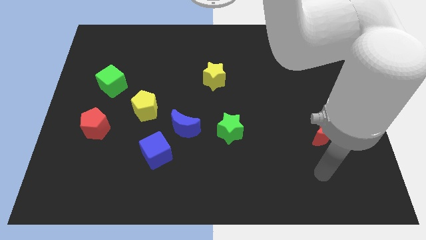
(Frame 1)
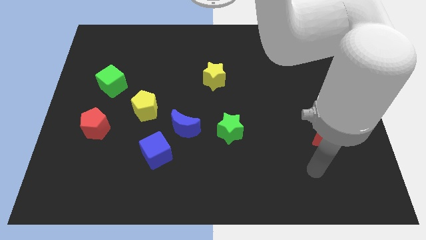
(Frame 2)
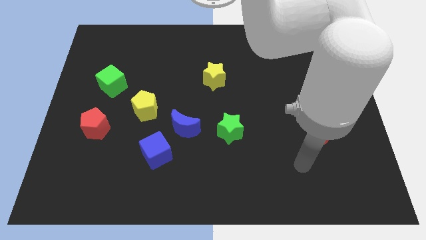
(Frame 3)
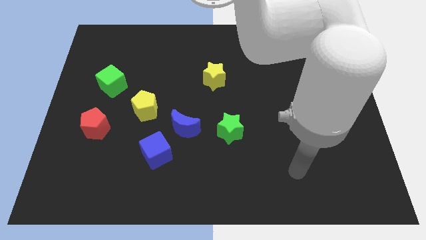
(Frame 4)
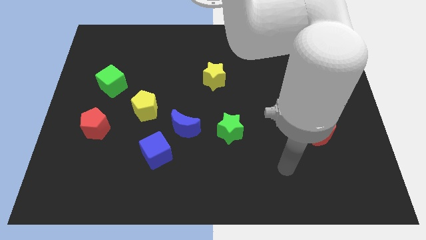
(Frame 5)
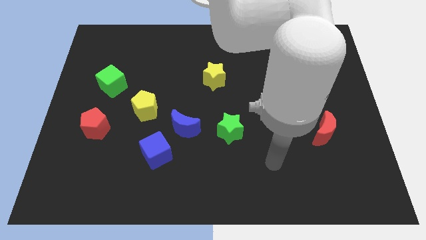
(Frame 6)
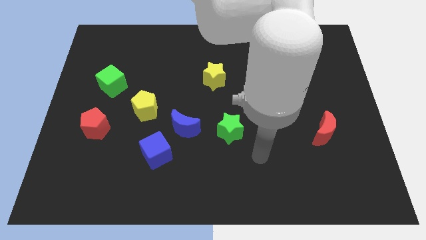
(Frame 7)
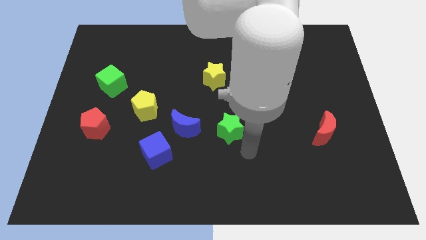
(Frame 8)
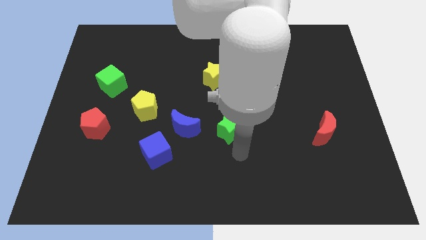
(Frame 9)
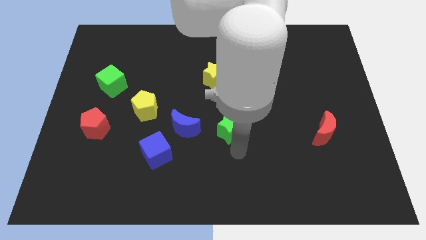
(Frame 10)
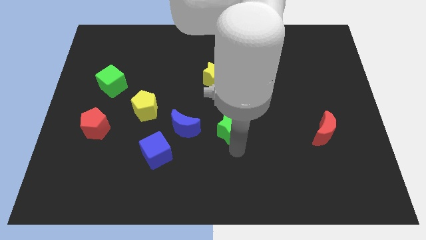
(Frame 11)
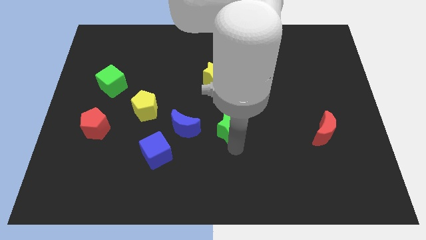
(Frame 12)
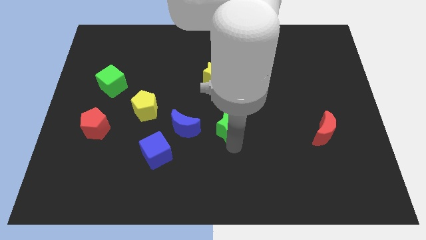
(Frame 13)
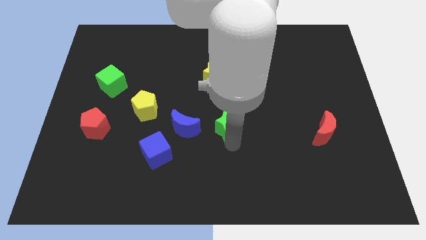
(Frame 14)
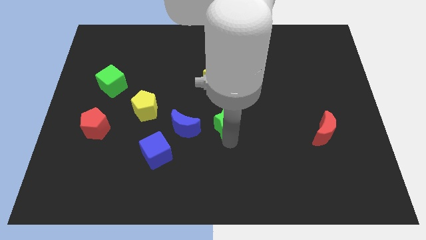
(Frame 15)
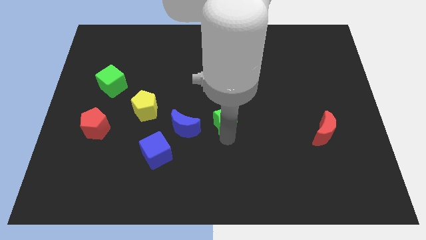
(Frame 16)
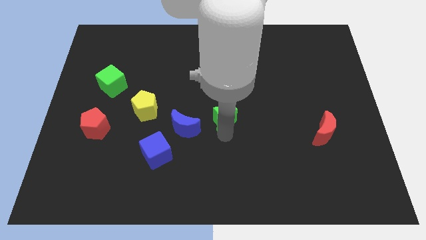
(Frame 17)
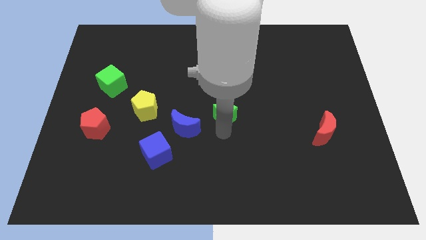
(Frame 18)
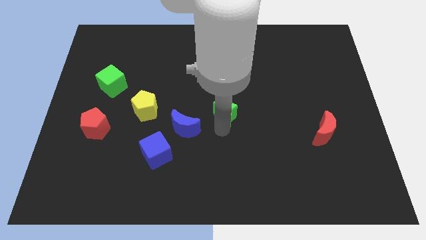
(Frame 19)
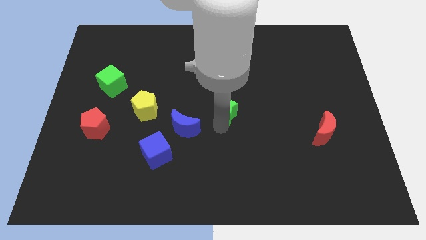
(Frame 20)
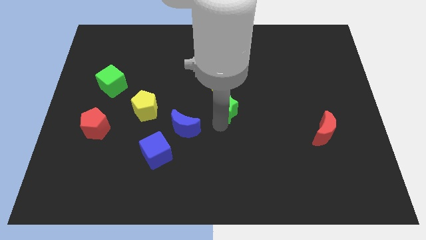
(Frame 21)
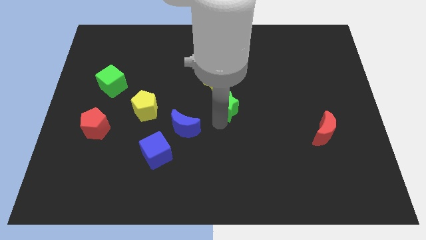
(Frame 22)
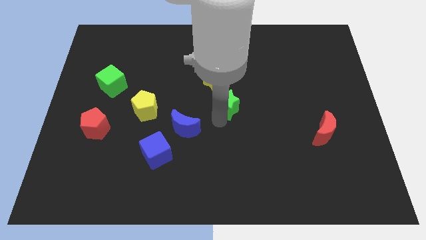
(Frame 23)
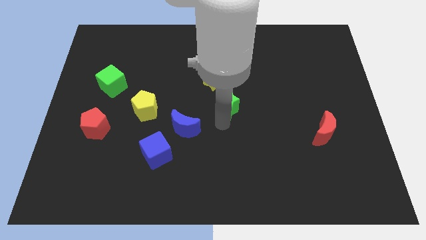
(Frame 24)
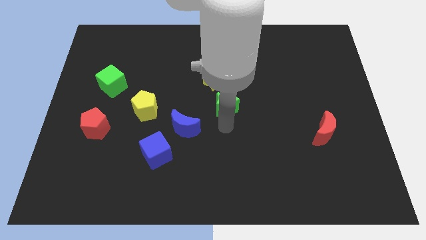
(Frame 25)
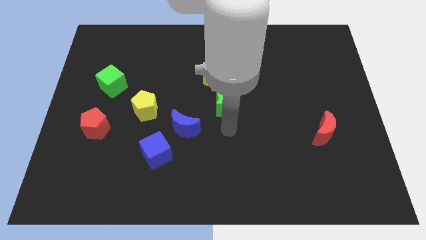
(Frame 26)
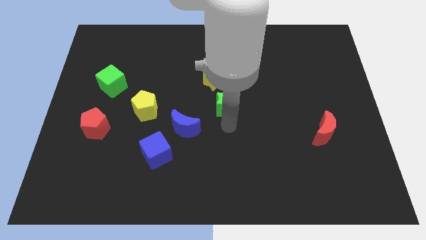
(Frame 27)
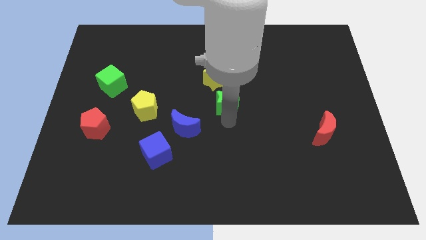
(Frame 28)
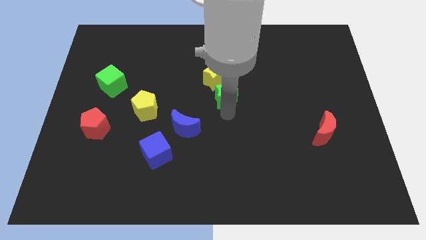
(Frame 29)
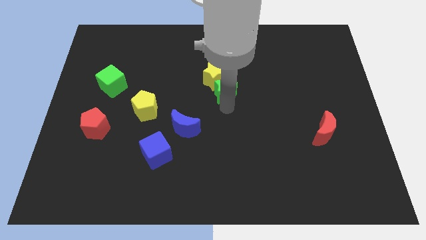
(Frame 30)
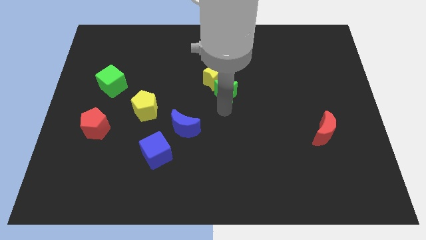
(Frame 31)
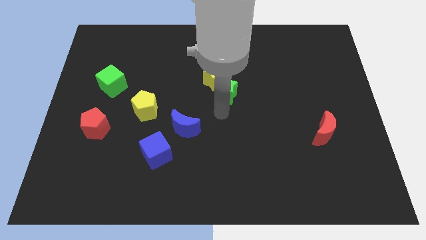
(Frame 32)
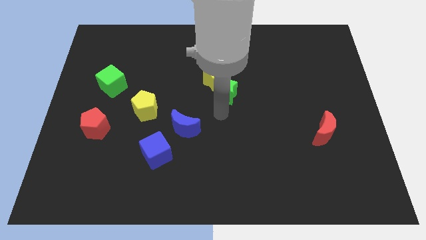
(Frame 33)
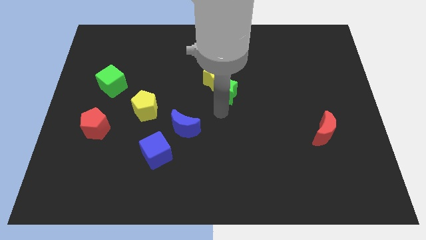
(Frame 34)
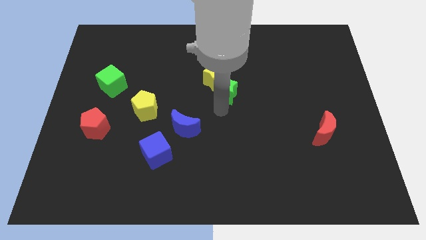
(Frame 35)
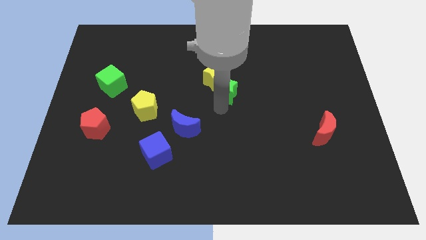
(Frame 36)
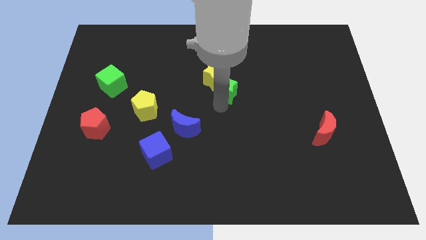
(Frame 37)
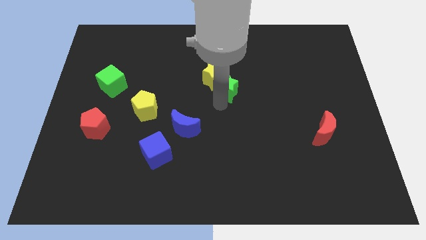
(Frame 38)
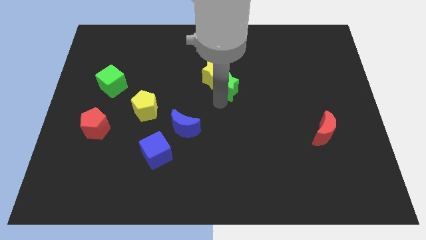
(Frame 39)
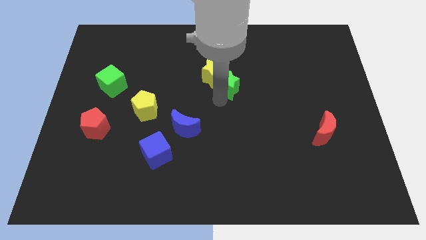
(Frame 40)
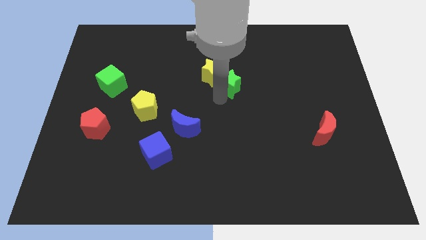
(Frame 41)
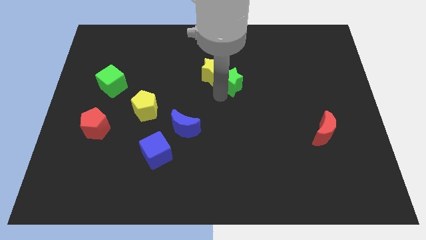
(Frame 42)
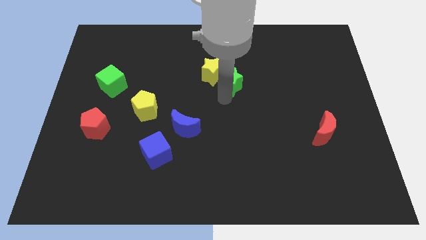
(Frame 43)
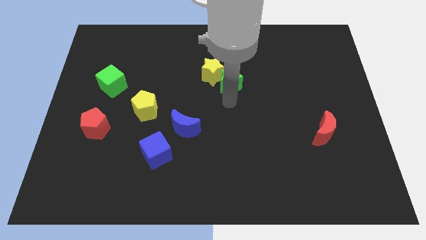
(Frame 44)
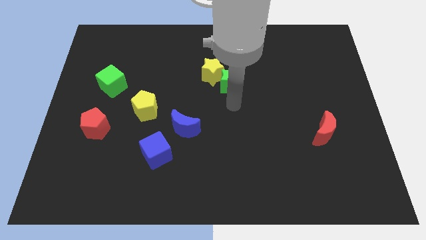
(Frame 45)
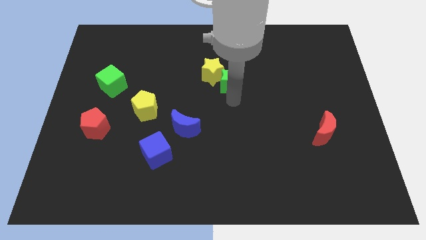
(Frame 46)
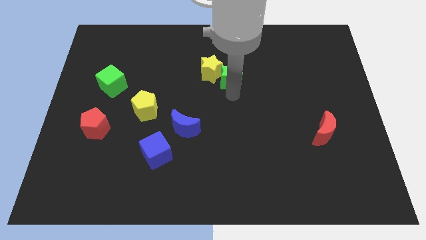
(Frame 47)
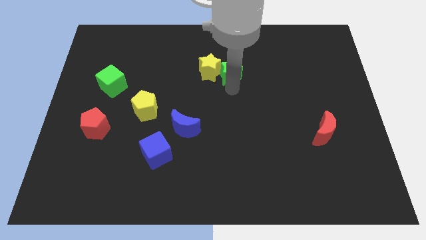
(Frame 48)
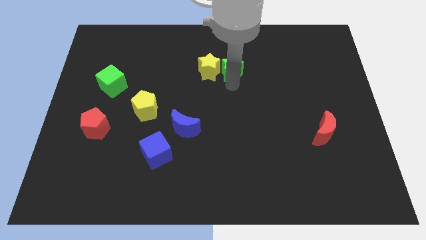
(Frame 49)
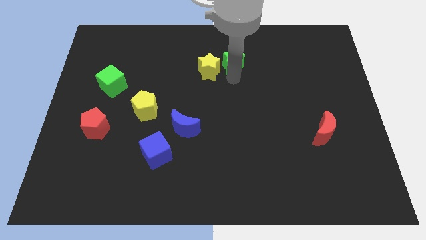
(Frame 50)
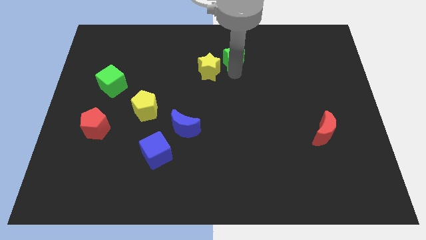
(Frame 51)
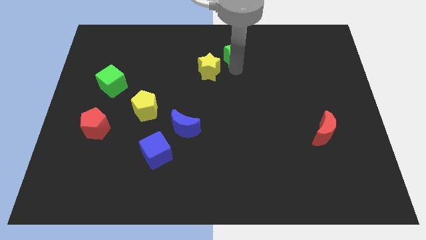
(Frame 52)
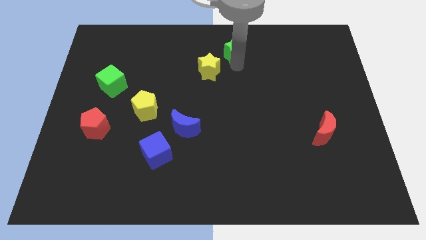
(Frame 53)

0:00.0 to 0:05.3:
move the green star to the towards your base

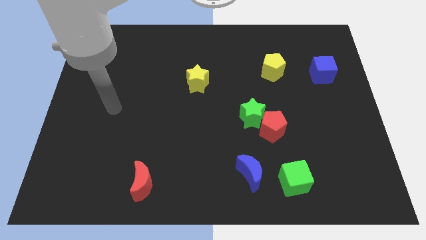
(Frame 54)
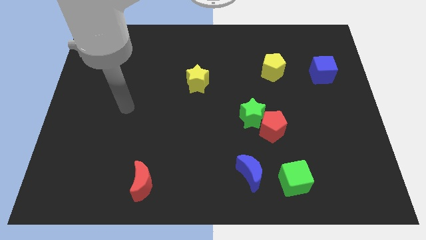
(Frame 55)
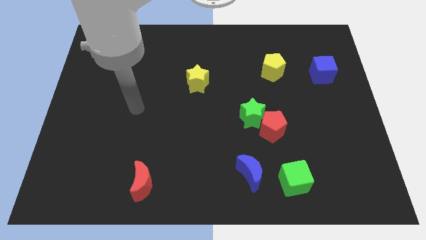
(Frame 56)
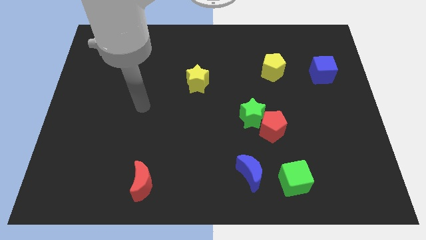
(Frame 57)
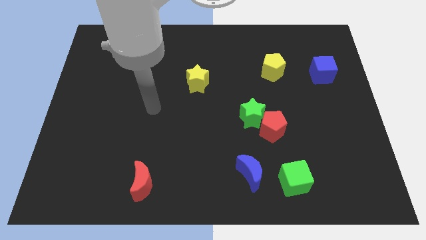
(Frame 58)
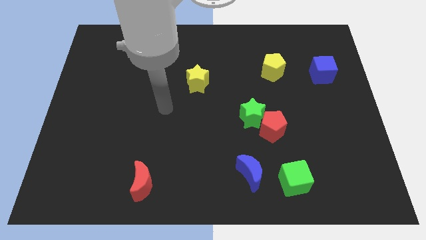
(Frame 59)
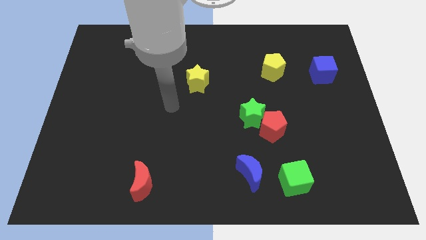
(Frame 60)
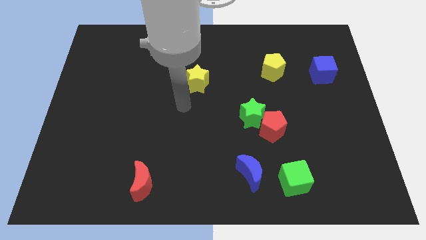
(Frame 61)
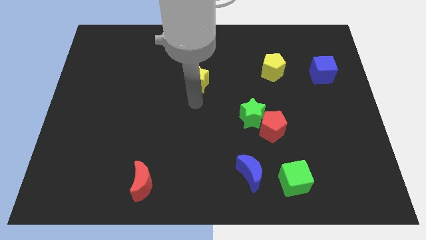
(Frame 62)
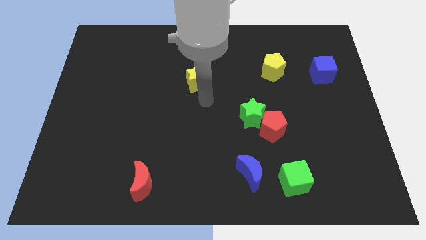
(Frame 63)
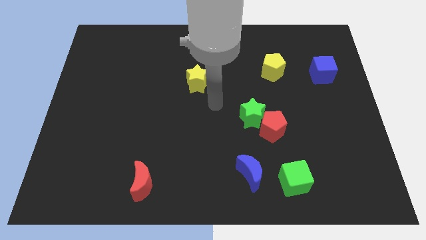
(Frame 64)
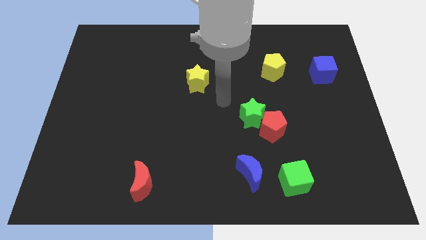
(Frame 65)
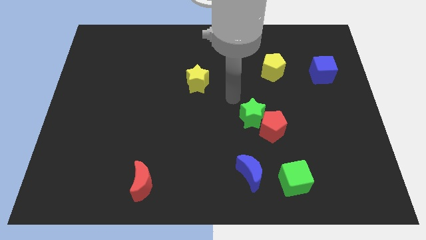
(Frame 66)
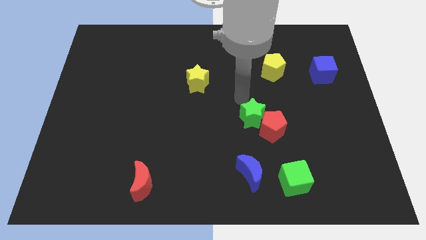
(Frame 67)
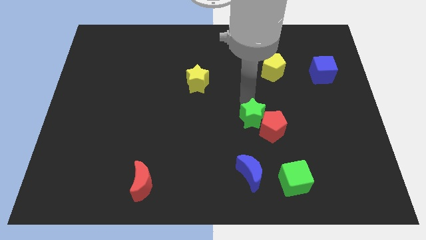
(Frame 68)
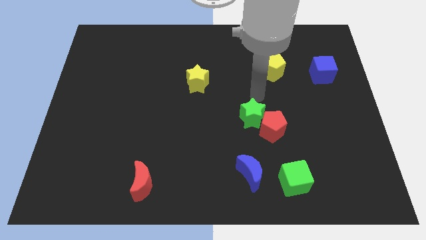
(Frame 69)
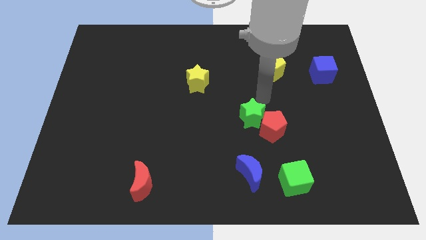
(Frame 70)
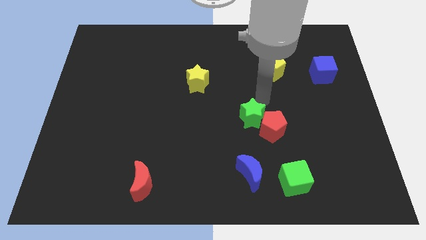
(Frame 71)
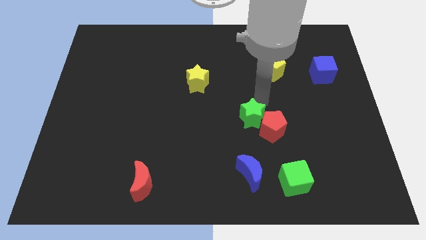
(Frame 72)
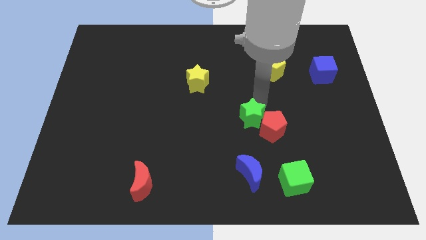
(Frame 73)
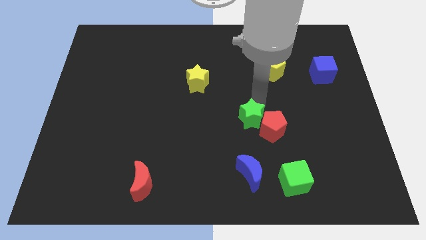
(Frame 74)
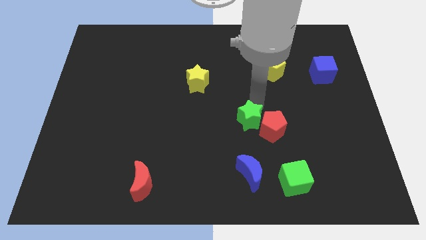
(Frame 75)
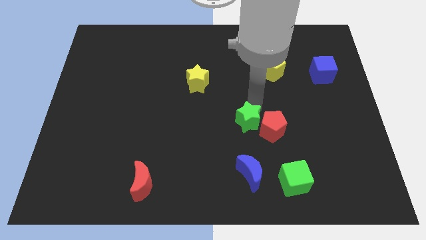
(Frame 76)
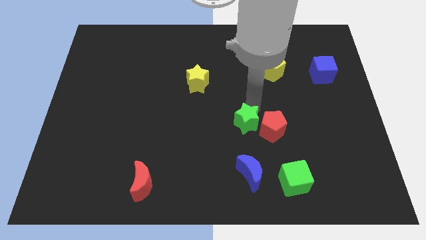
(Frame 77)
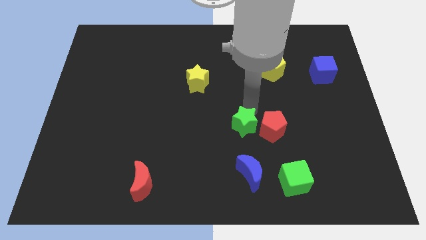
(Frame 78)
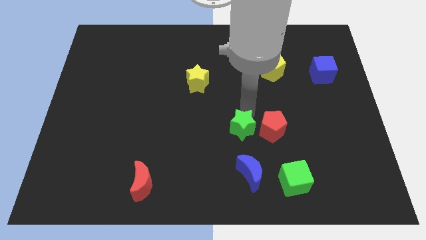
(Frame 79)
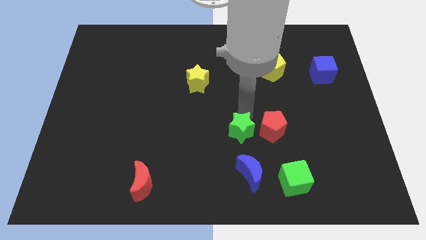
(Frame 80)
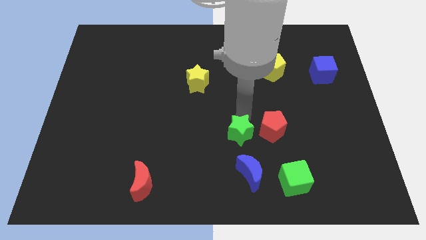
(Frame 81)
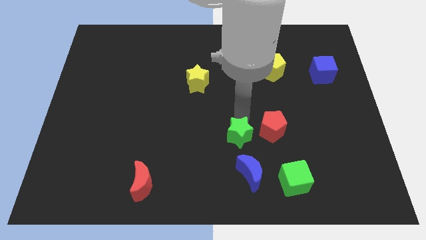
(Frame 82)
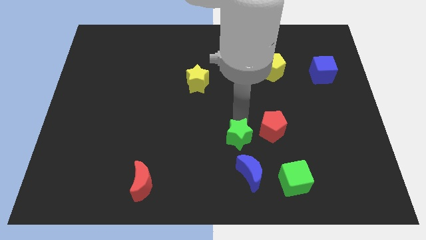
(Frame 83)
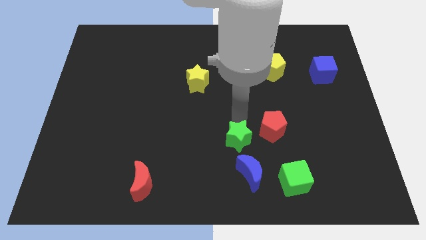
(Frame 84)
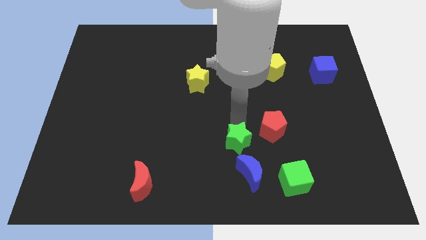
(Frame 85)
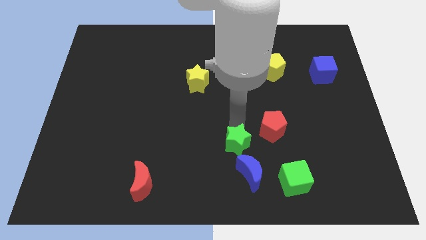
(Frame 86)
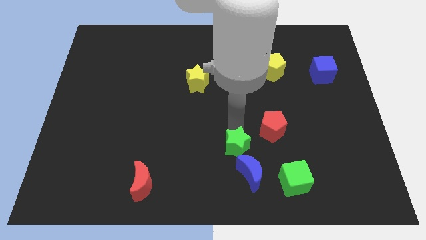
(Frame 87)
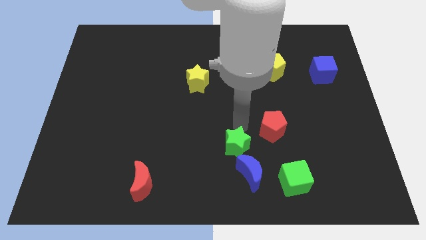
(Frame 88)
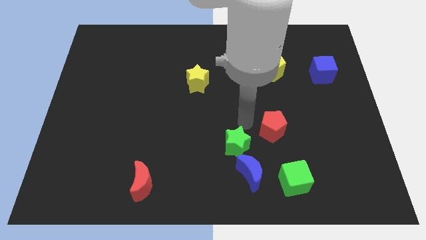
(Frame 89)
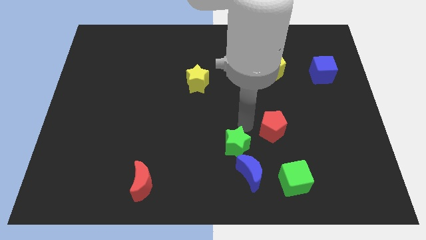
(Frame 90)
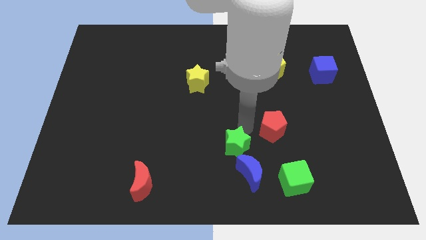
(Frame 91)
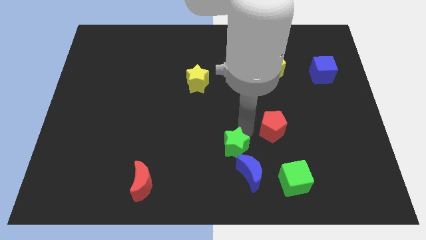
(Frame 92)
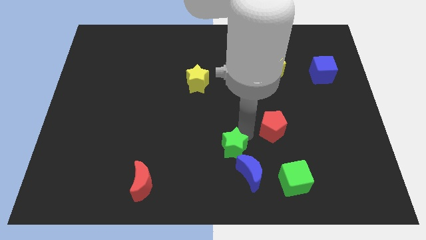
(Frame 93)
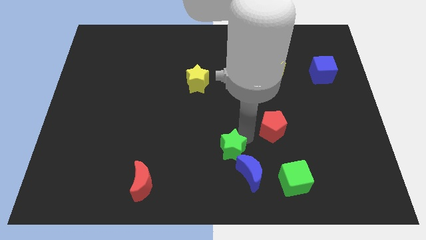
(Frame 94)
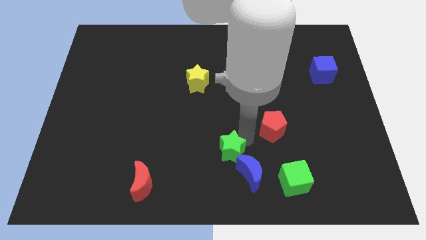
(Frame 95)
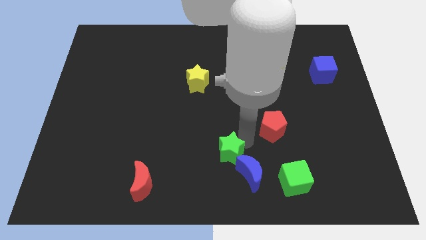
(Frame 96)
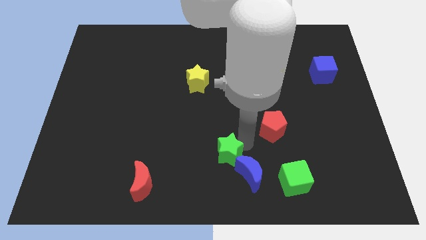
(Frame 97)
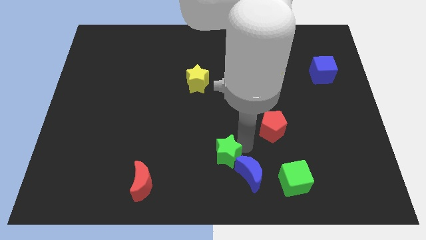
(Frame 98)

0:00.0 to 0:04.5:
put the green star to the bottom
